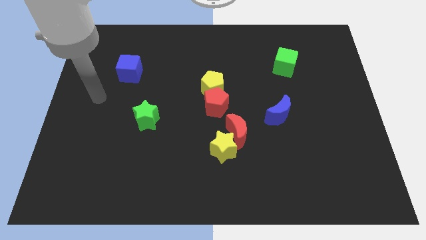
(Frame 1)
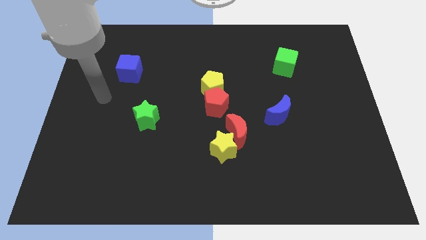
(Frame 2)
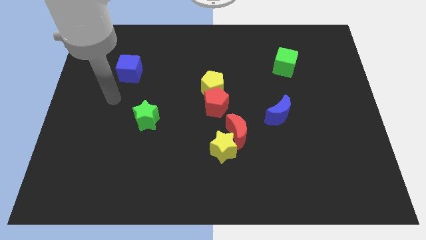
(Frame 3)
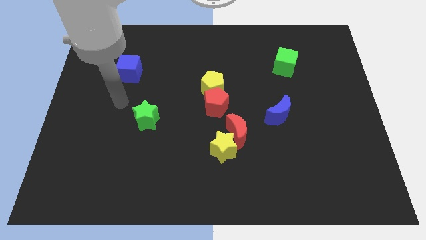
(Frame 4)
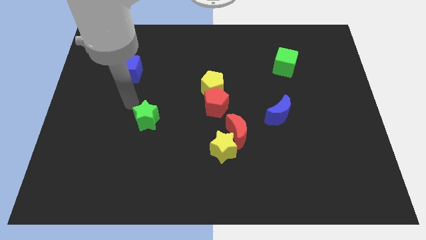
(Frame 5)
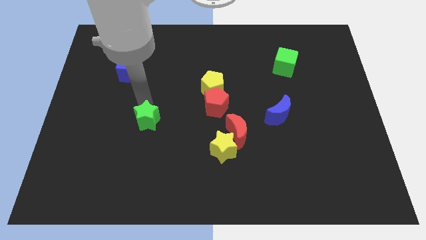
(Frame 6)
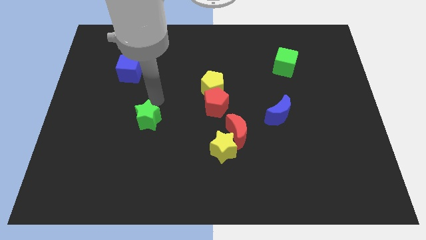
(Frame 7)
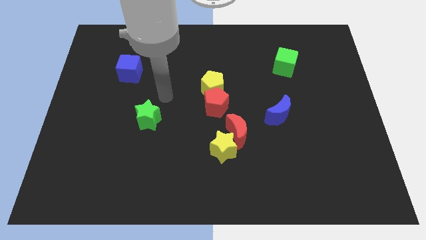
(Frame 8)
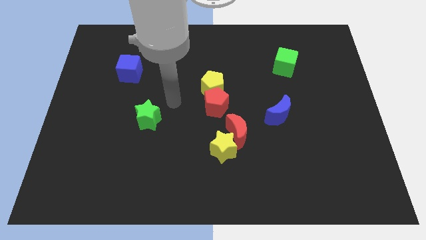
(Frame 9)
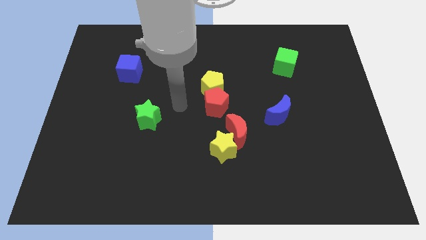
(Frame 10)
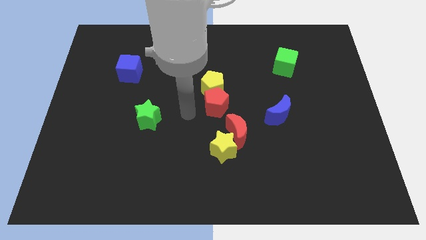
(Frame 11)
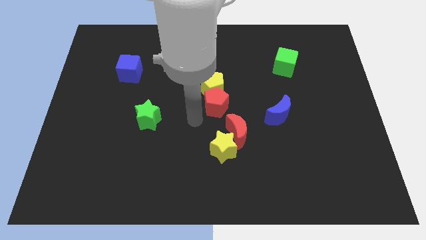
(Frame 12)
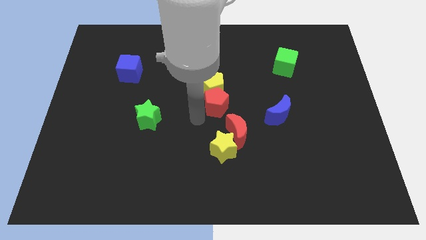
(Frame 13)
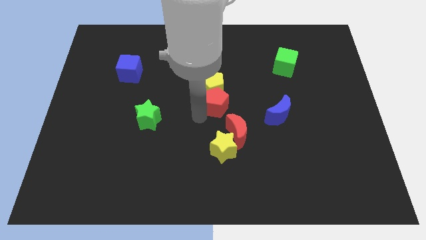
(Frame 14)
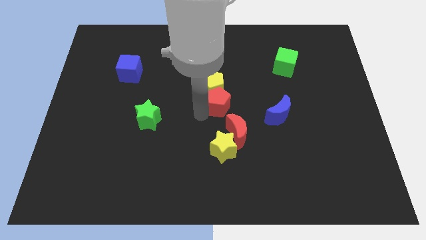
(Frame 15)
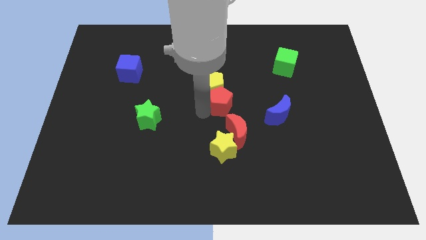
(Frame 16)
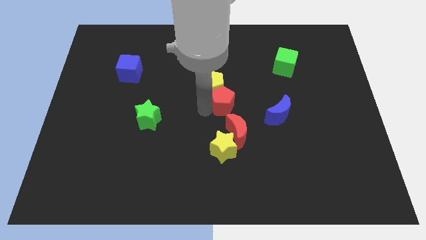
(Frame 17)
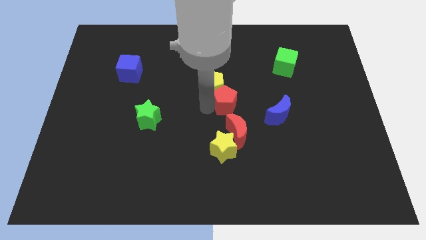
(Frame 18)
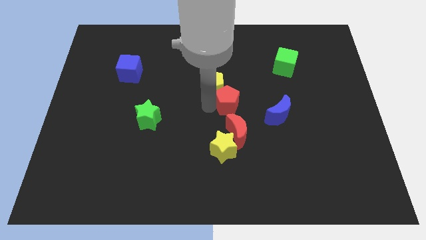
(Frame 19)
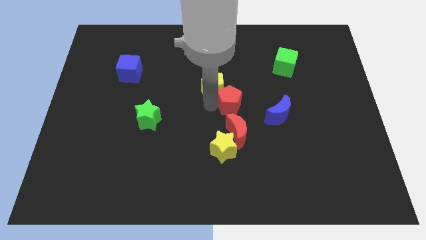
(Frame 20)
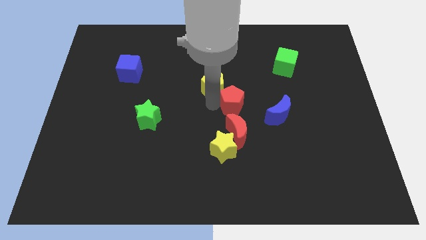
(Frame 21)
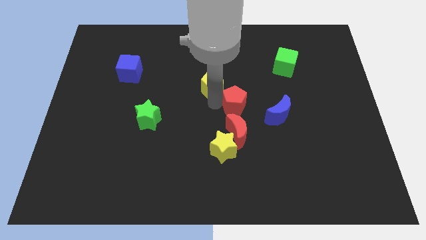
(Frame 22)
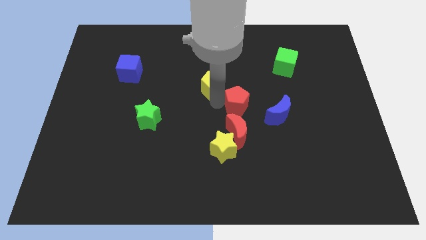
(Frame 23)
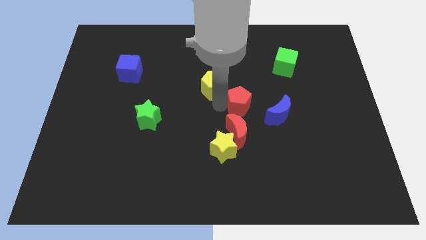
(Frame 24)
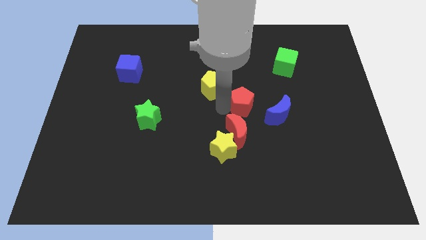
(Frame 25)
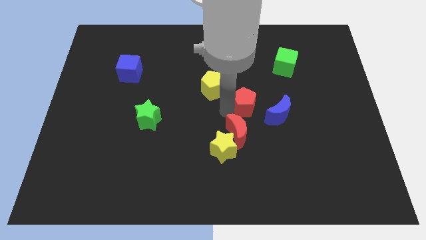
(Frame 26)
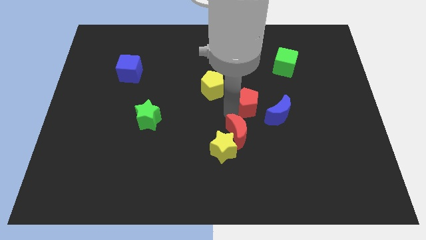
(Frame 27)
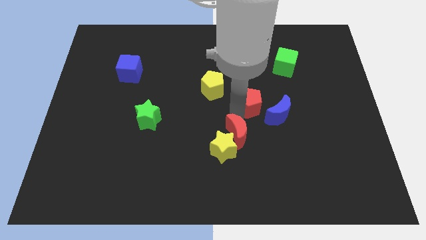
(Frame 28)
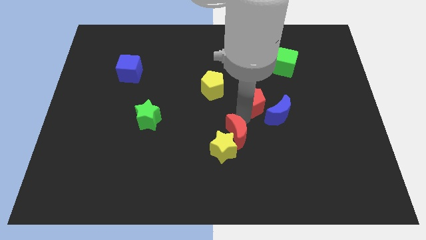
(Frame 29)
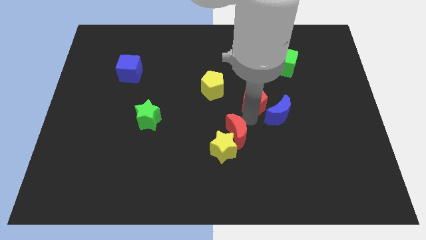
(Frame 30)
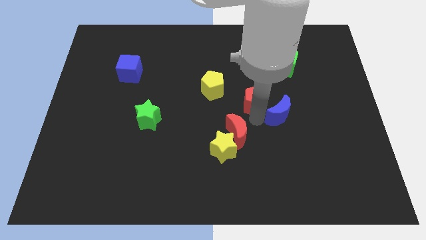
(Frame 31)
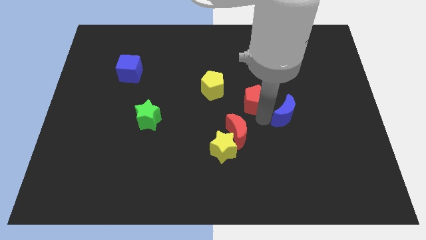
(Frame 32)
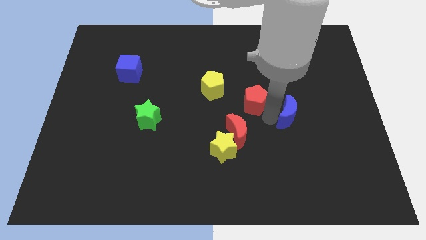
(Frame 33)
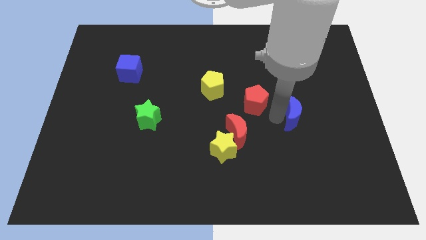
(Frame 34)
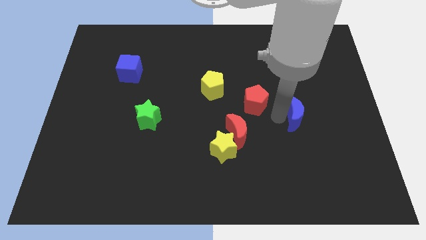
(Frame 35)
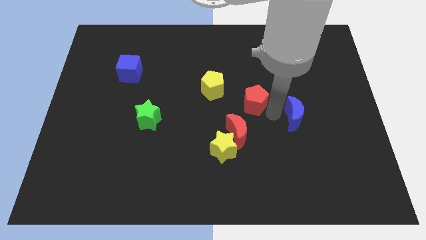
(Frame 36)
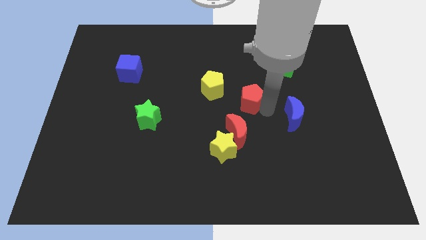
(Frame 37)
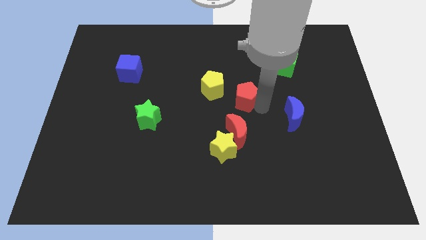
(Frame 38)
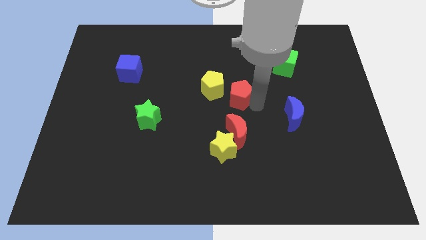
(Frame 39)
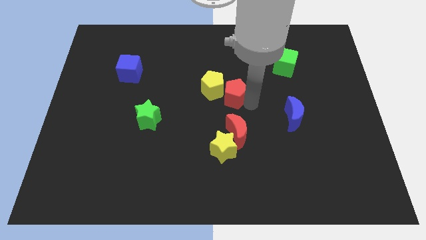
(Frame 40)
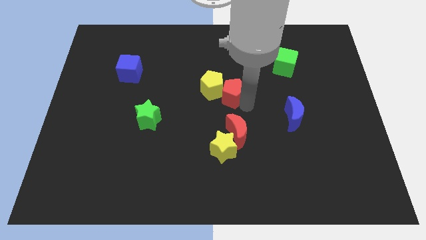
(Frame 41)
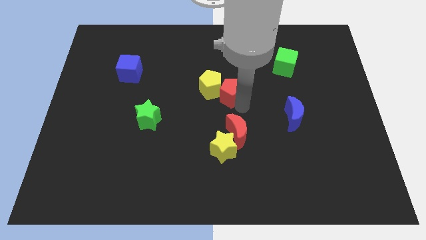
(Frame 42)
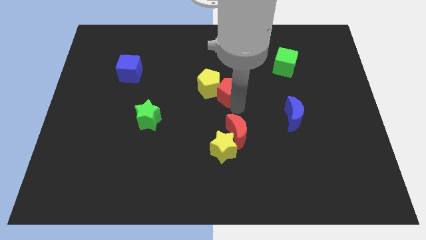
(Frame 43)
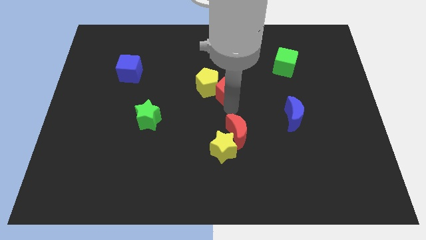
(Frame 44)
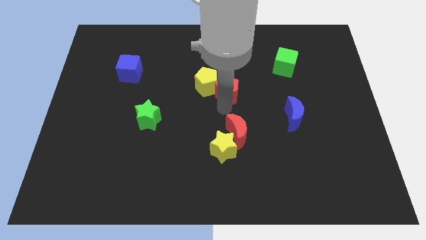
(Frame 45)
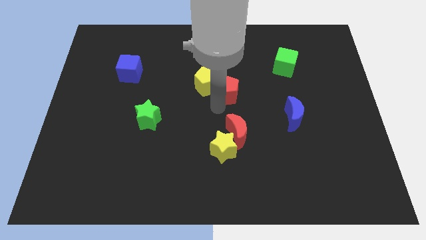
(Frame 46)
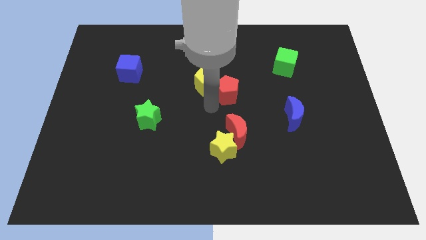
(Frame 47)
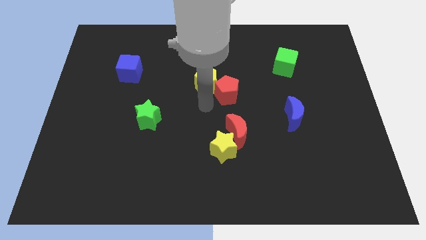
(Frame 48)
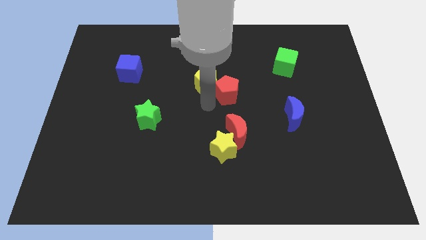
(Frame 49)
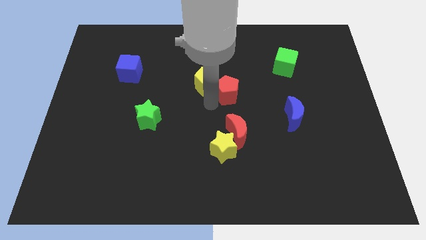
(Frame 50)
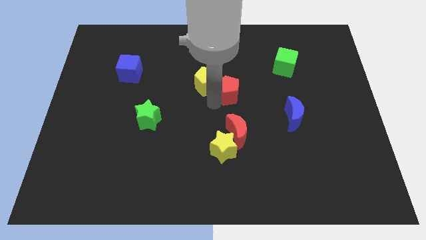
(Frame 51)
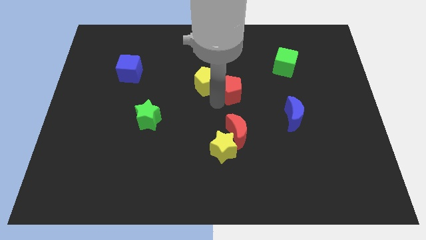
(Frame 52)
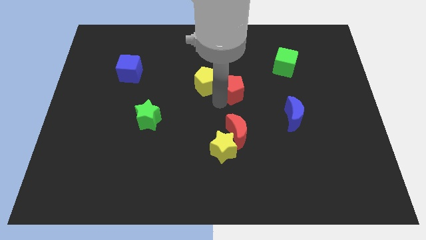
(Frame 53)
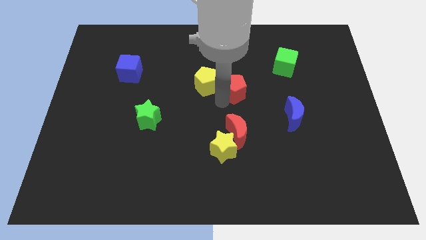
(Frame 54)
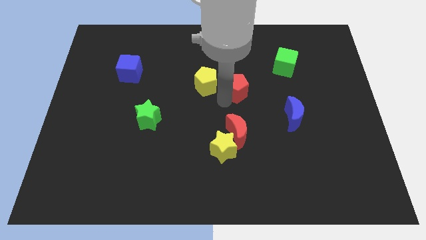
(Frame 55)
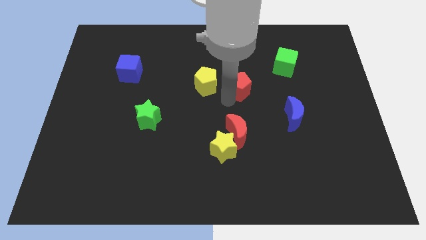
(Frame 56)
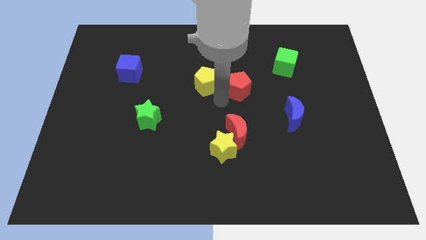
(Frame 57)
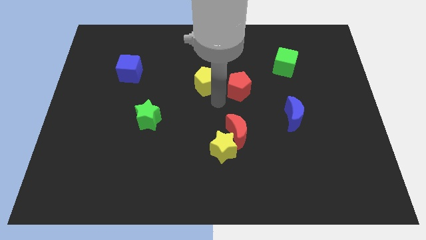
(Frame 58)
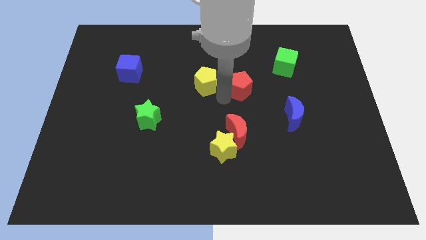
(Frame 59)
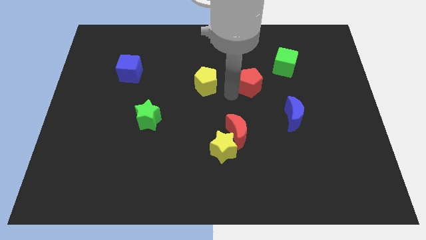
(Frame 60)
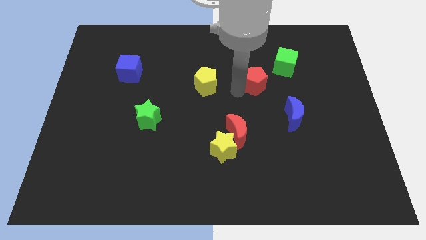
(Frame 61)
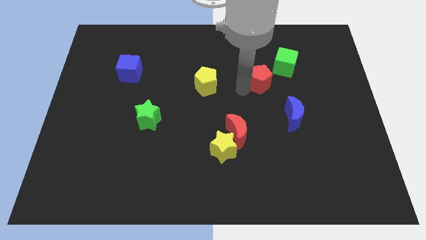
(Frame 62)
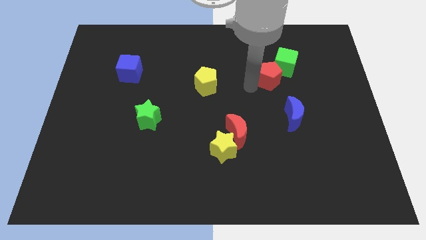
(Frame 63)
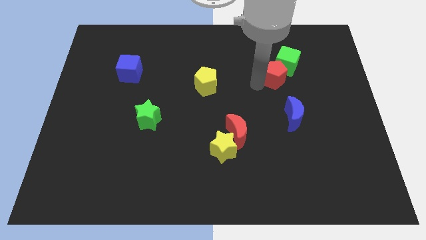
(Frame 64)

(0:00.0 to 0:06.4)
put the red pentagon to the green cube
